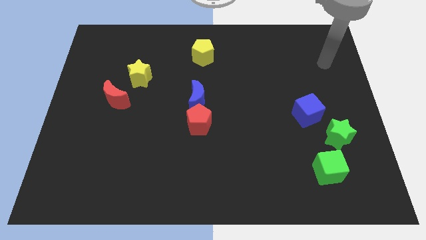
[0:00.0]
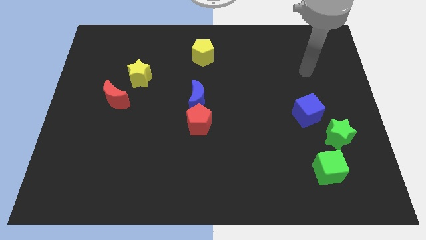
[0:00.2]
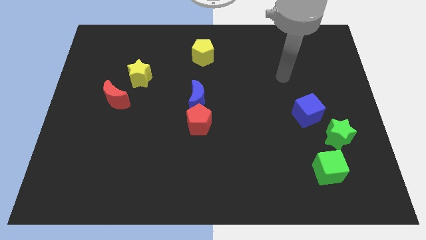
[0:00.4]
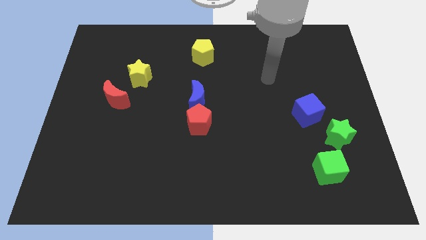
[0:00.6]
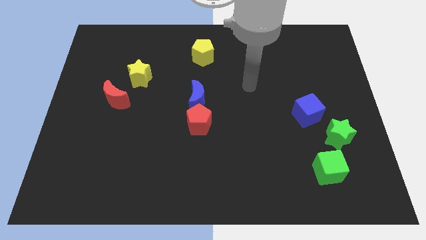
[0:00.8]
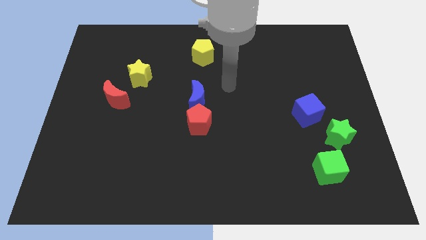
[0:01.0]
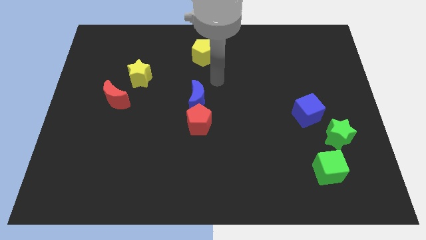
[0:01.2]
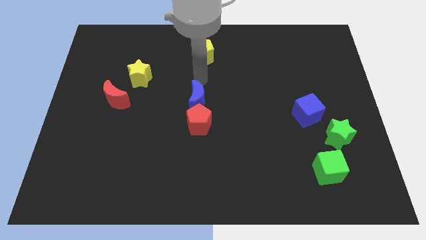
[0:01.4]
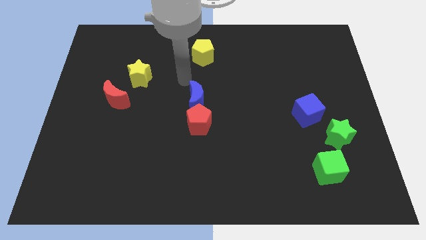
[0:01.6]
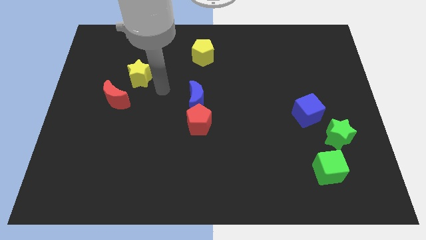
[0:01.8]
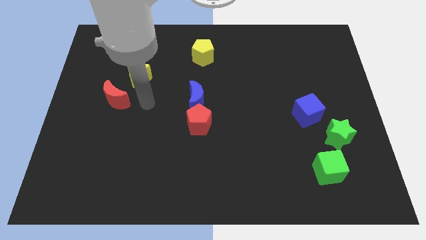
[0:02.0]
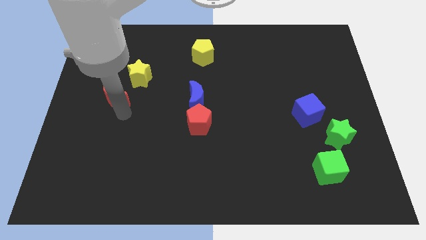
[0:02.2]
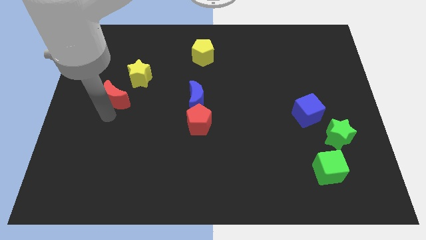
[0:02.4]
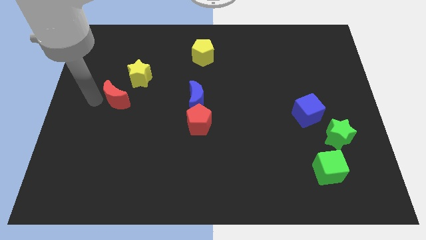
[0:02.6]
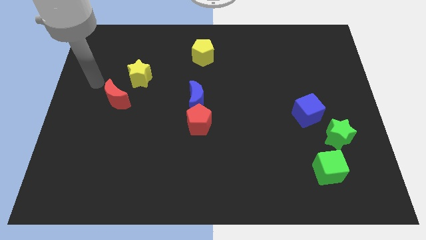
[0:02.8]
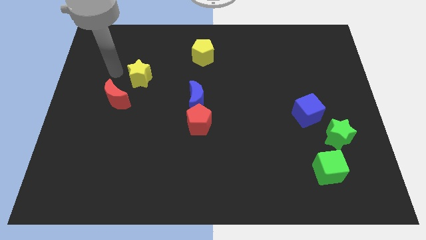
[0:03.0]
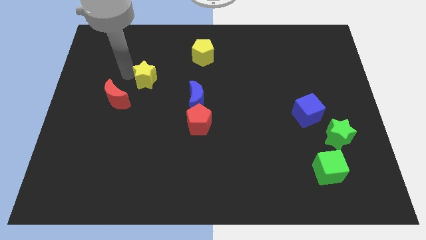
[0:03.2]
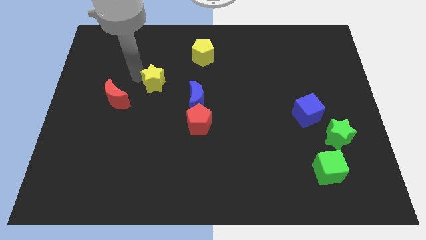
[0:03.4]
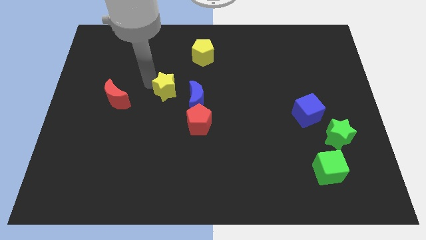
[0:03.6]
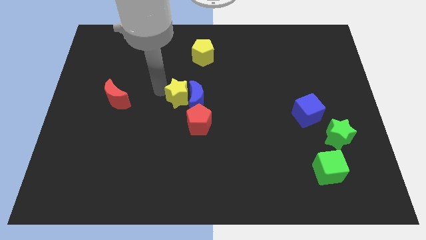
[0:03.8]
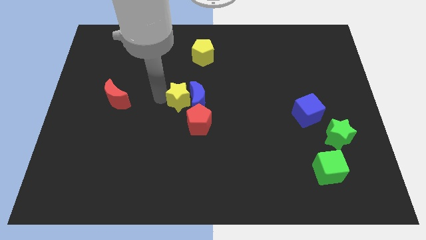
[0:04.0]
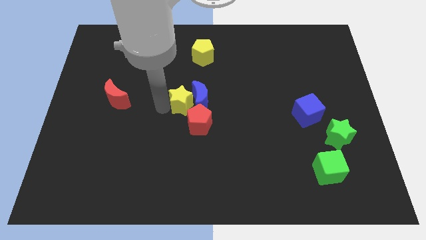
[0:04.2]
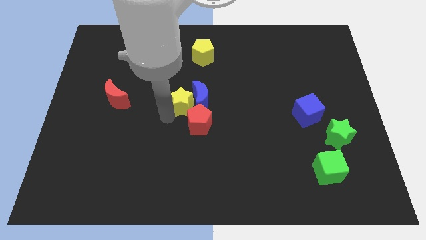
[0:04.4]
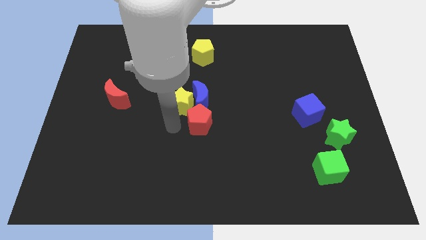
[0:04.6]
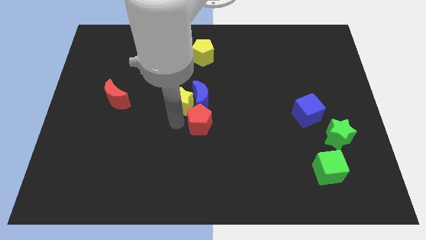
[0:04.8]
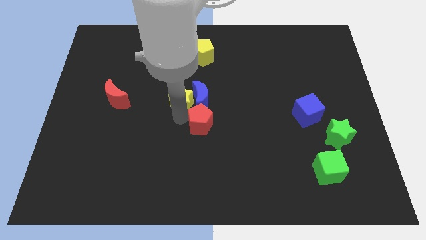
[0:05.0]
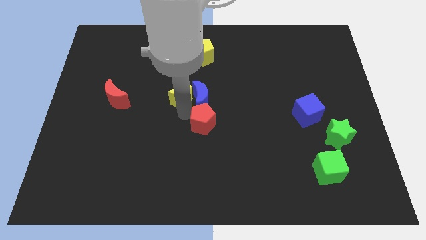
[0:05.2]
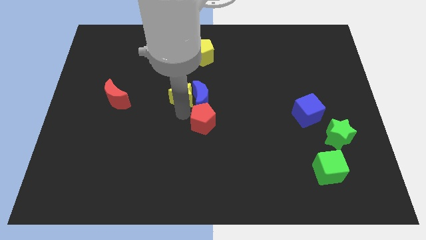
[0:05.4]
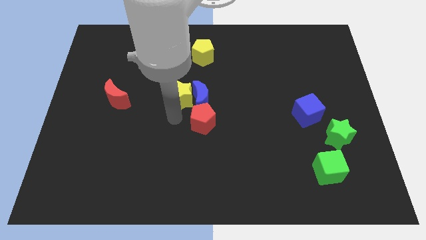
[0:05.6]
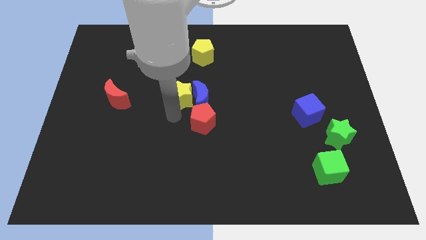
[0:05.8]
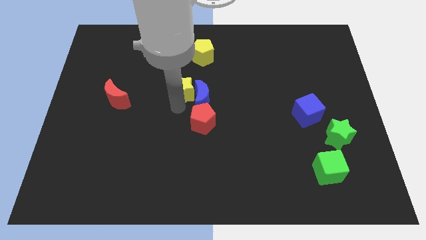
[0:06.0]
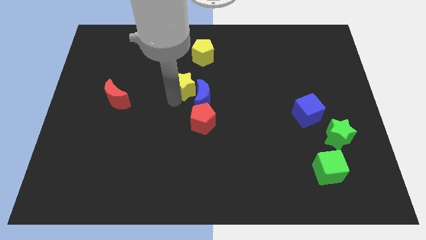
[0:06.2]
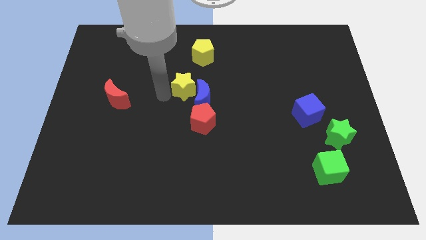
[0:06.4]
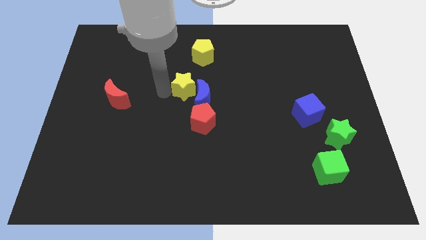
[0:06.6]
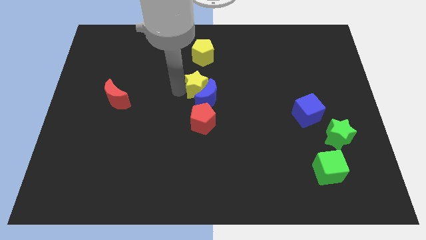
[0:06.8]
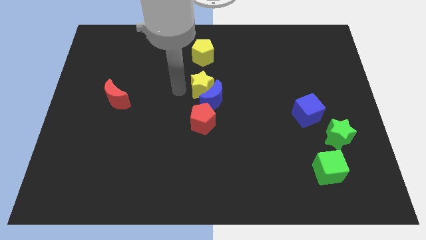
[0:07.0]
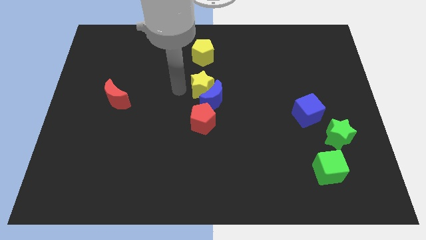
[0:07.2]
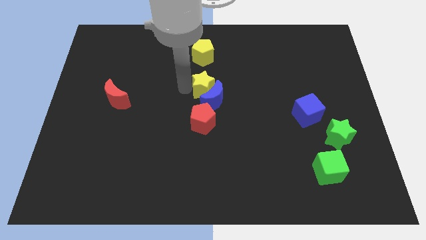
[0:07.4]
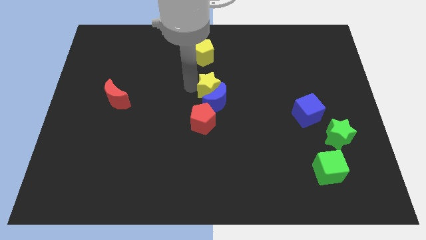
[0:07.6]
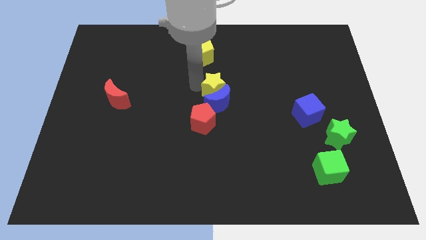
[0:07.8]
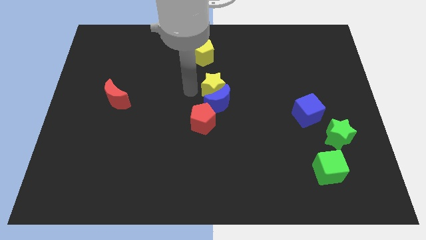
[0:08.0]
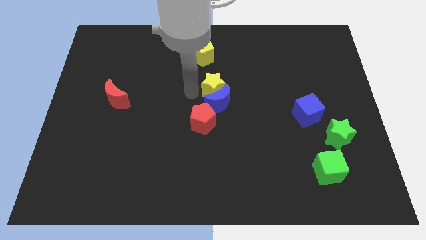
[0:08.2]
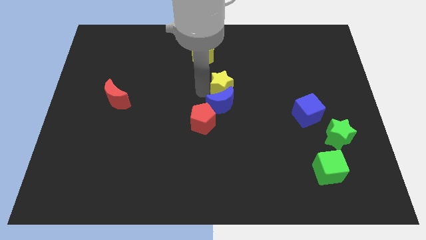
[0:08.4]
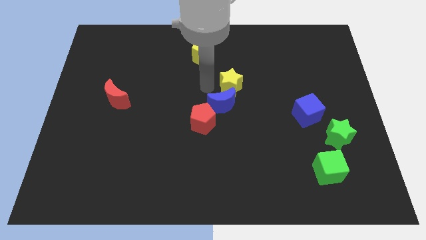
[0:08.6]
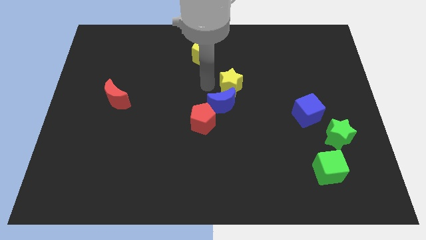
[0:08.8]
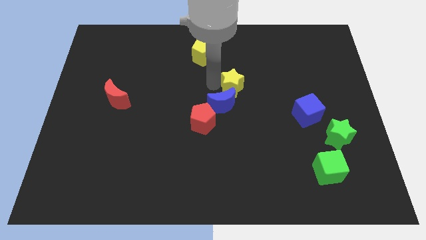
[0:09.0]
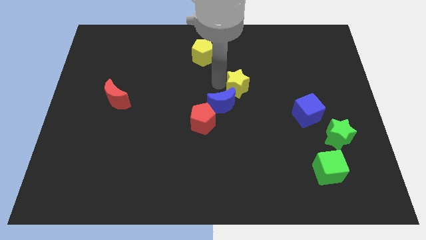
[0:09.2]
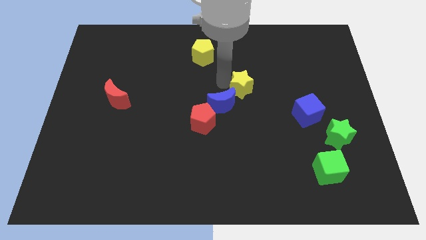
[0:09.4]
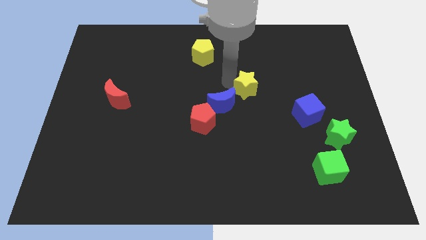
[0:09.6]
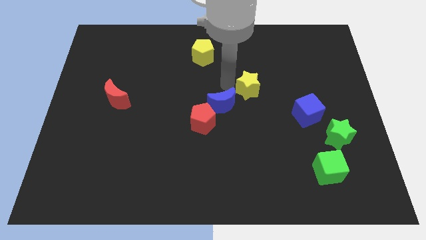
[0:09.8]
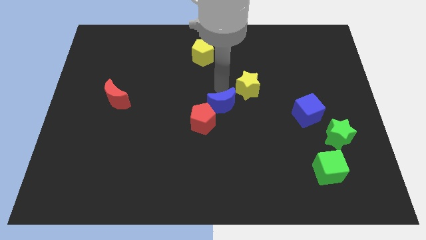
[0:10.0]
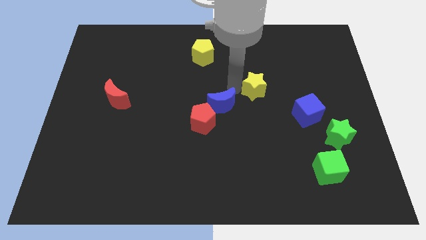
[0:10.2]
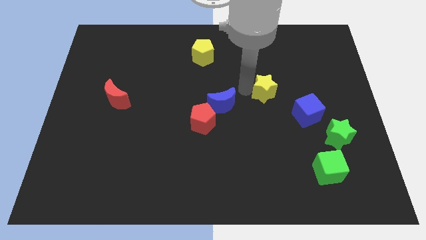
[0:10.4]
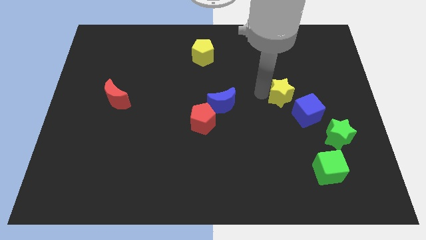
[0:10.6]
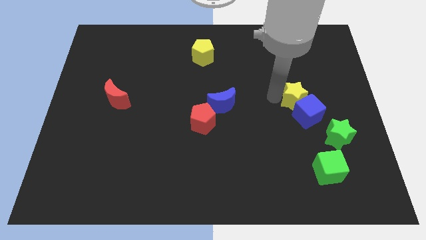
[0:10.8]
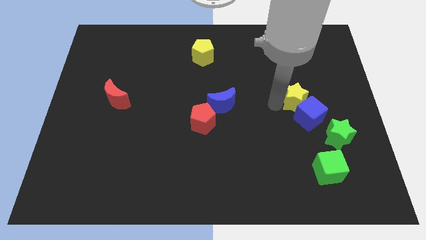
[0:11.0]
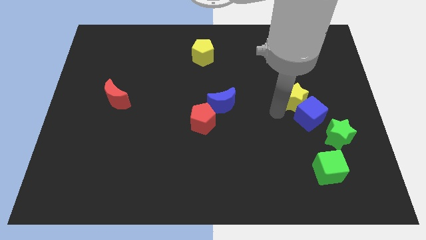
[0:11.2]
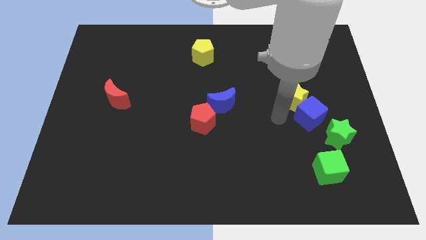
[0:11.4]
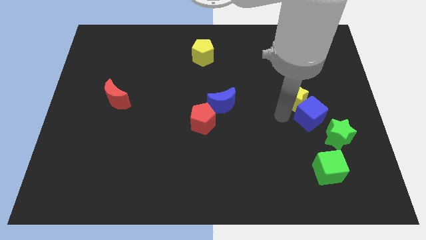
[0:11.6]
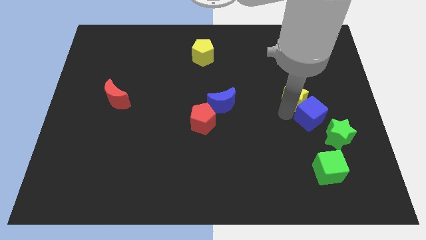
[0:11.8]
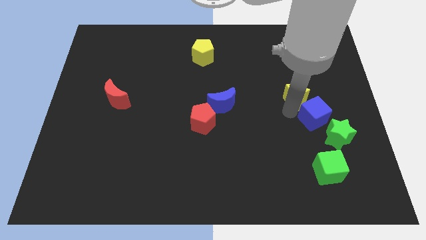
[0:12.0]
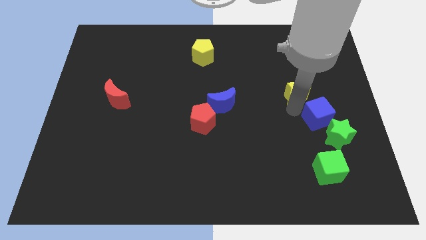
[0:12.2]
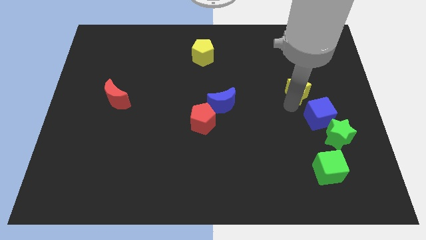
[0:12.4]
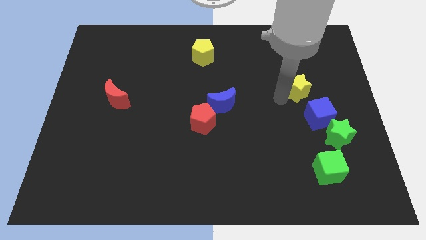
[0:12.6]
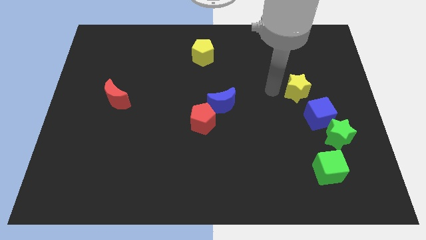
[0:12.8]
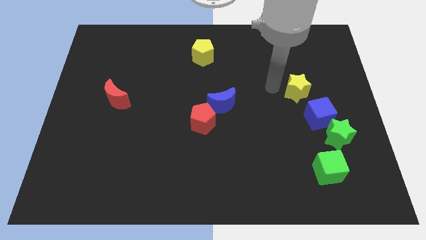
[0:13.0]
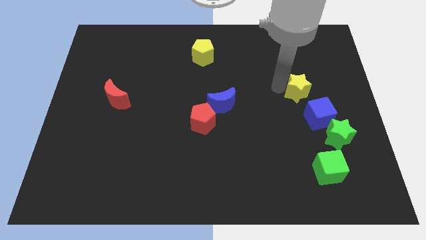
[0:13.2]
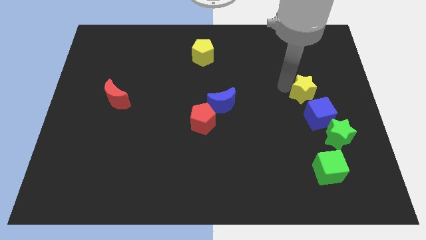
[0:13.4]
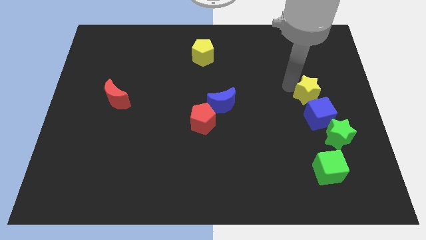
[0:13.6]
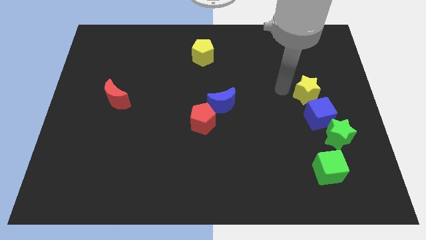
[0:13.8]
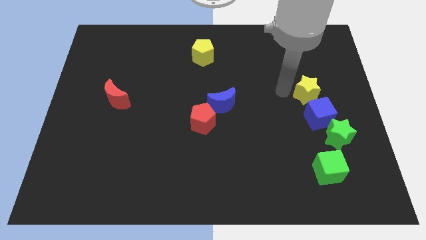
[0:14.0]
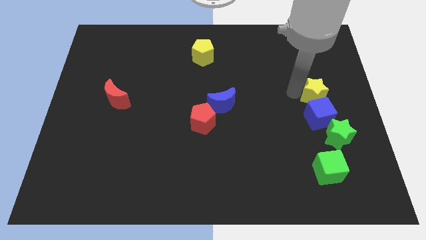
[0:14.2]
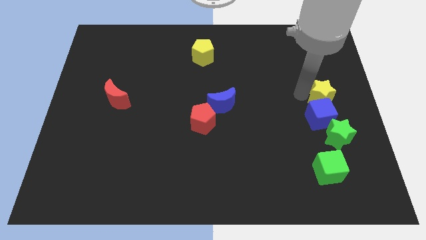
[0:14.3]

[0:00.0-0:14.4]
put the yellow star to the center right
